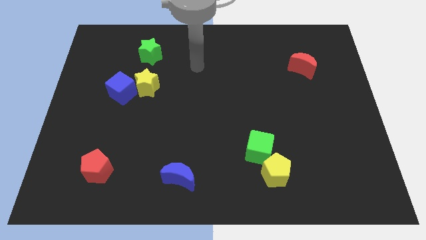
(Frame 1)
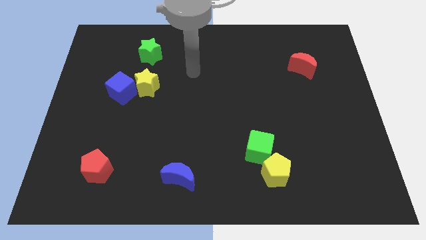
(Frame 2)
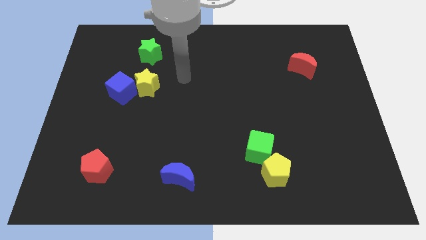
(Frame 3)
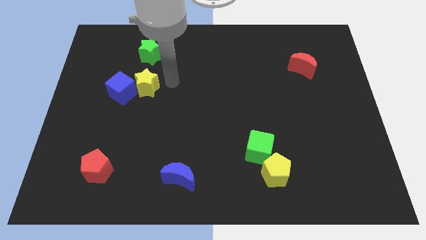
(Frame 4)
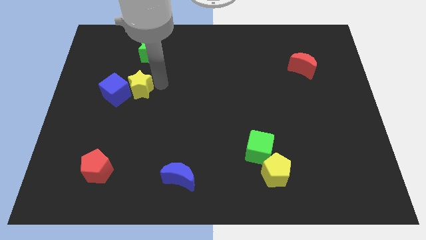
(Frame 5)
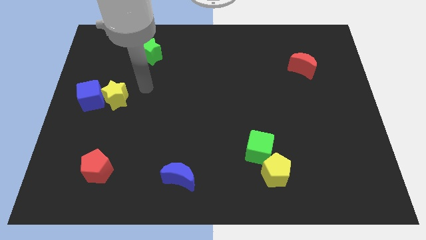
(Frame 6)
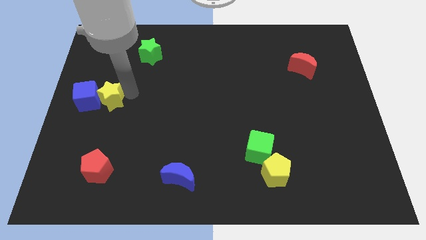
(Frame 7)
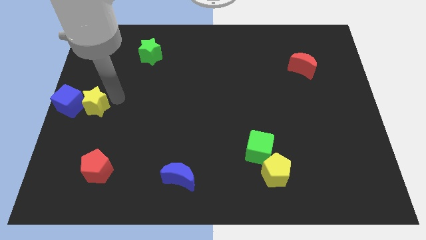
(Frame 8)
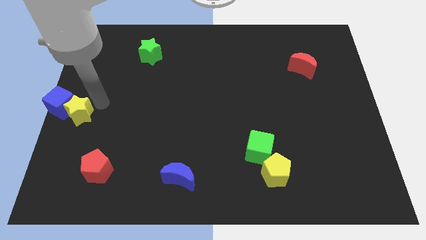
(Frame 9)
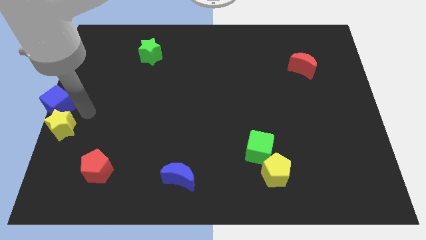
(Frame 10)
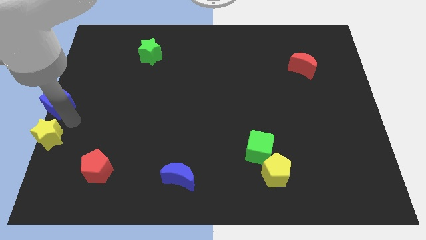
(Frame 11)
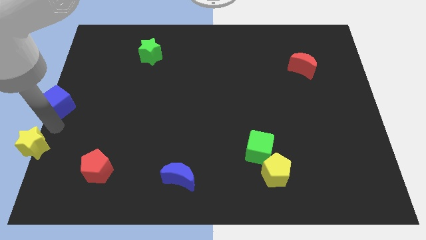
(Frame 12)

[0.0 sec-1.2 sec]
move the blue cube away from the yellow star

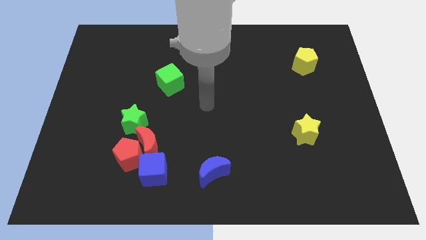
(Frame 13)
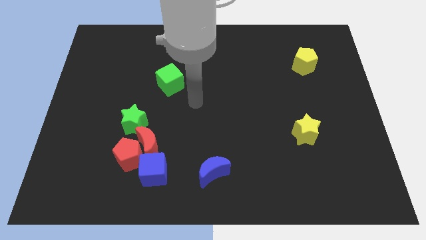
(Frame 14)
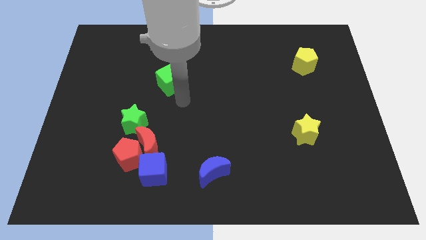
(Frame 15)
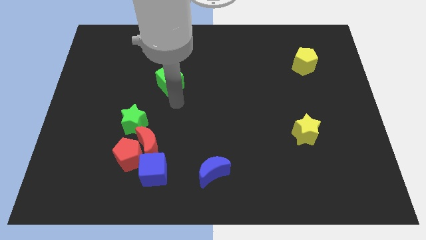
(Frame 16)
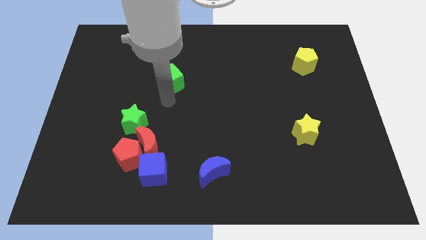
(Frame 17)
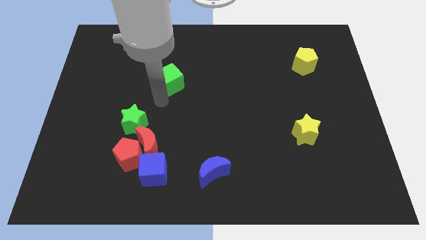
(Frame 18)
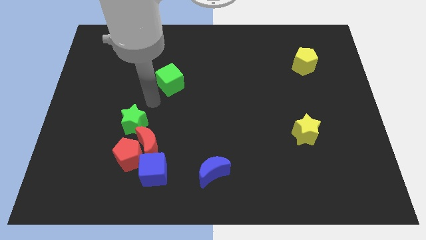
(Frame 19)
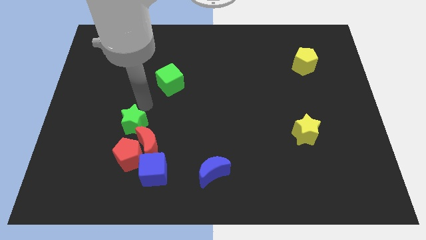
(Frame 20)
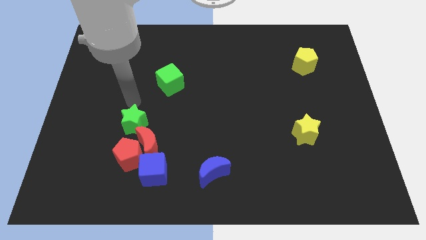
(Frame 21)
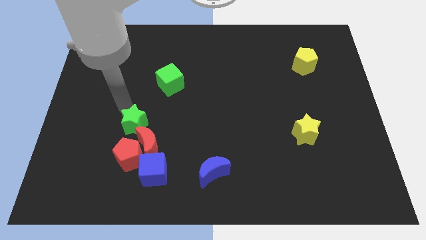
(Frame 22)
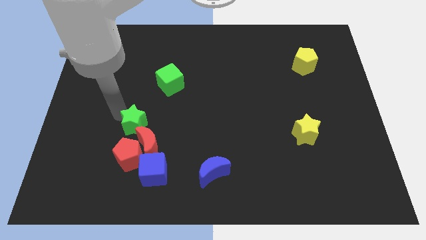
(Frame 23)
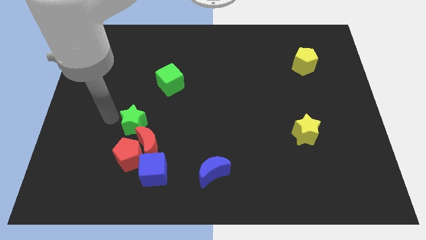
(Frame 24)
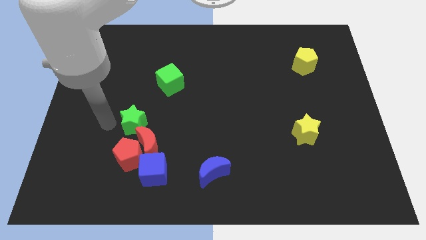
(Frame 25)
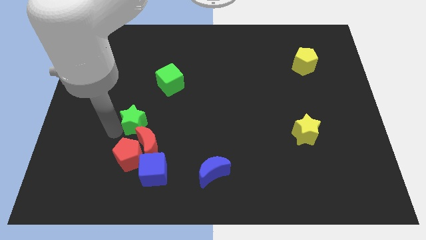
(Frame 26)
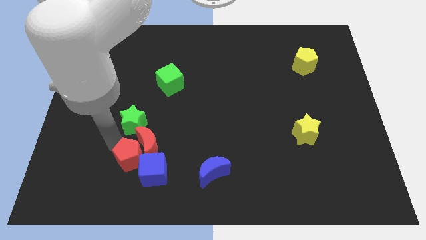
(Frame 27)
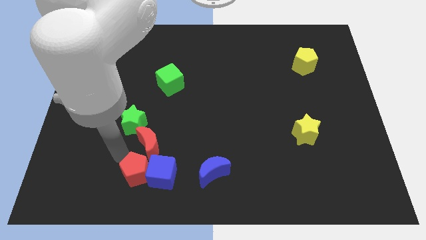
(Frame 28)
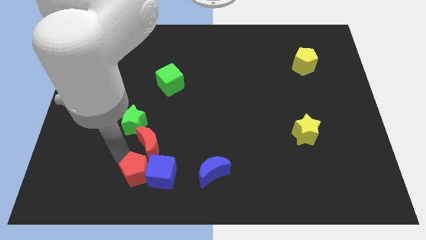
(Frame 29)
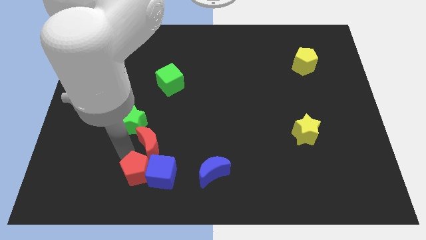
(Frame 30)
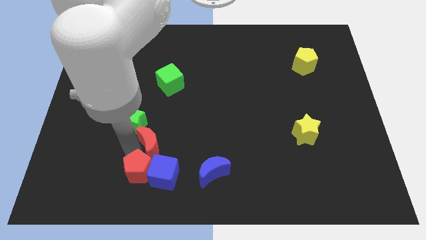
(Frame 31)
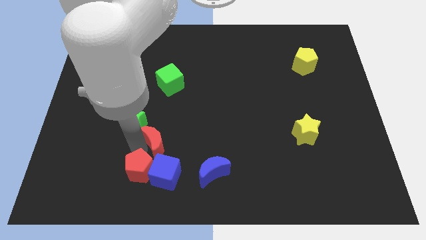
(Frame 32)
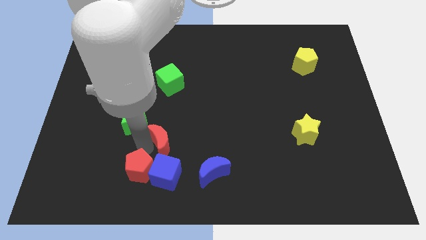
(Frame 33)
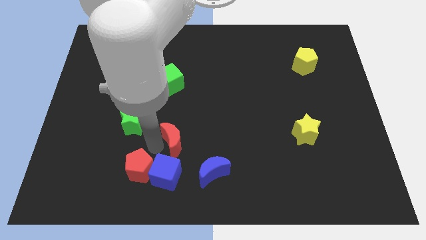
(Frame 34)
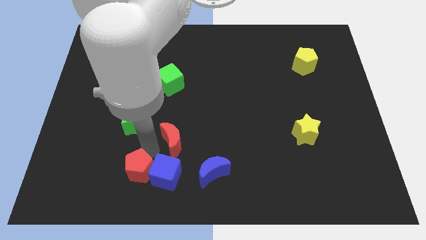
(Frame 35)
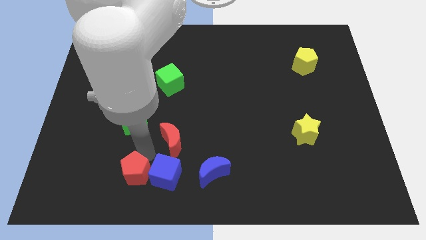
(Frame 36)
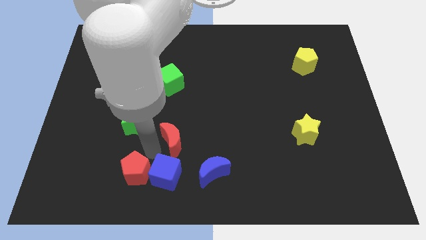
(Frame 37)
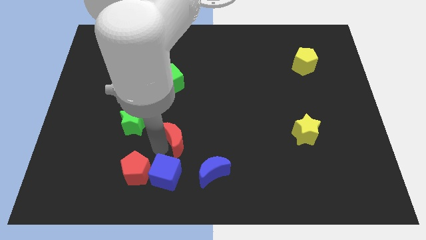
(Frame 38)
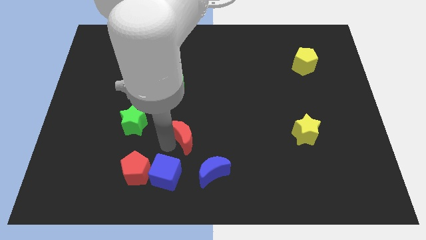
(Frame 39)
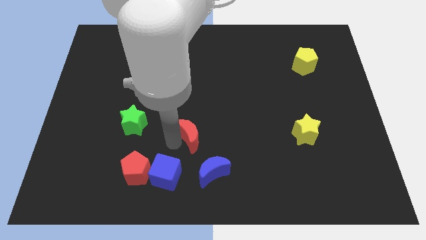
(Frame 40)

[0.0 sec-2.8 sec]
move the red moon away from the group of blocks

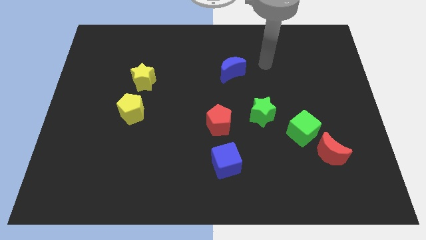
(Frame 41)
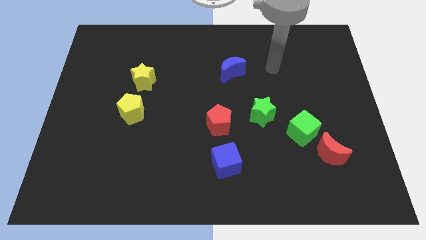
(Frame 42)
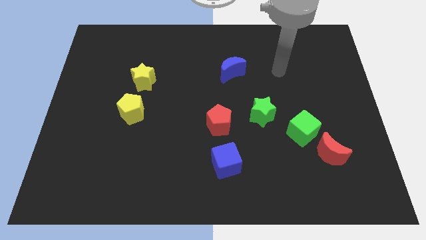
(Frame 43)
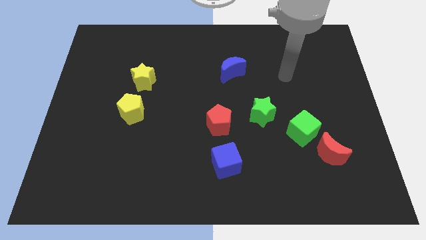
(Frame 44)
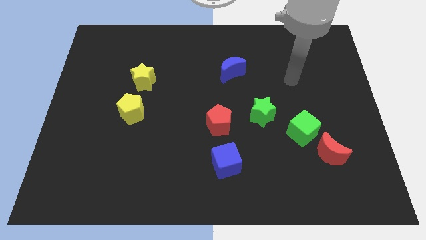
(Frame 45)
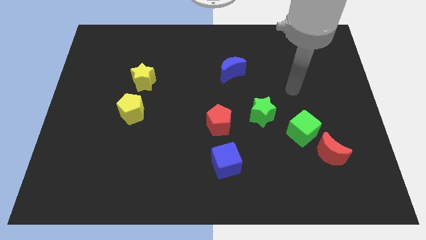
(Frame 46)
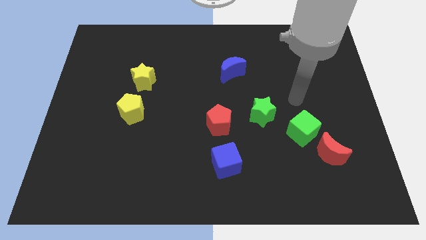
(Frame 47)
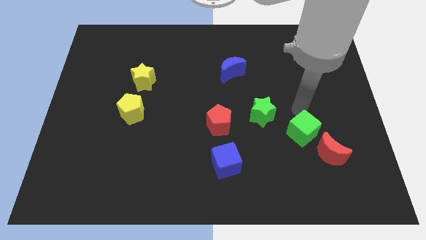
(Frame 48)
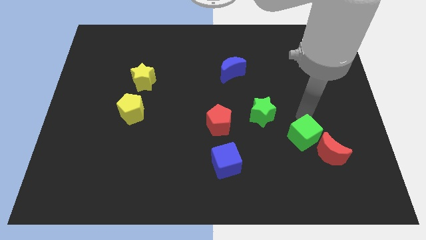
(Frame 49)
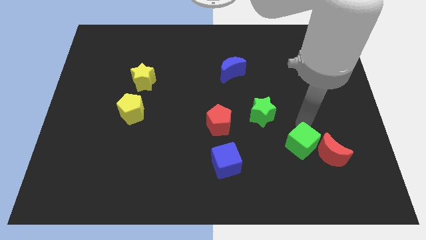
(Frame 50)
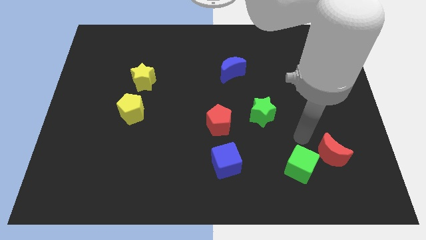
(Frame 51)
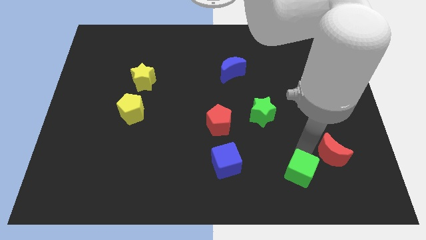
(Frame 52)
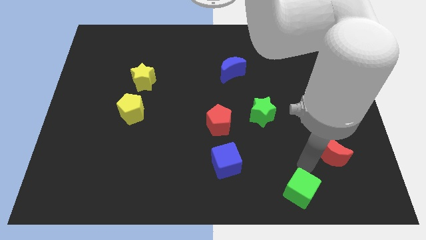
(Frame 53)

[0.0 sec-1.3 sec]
separate the red moon from the green cube

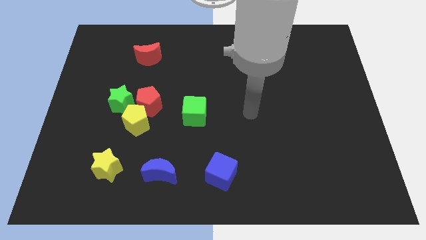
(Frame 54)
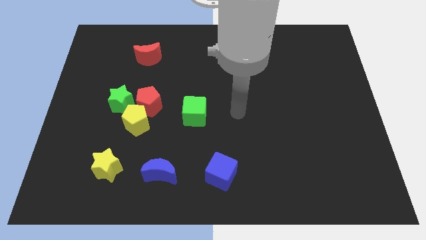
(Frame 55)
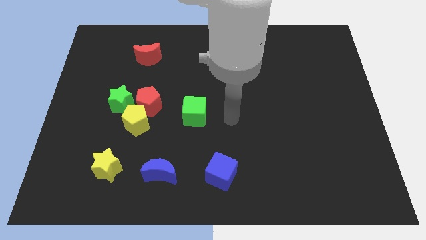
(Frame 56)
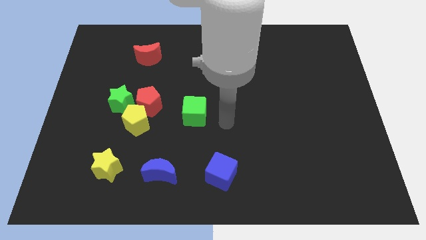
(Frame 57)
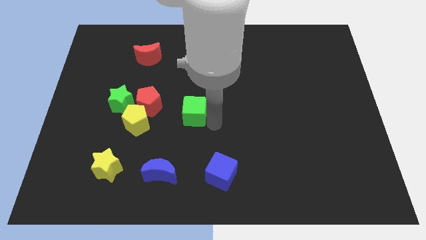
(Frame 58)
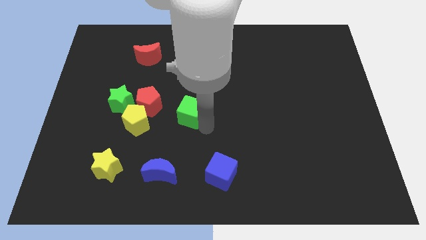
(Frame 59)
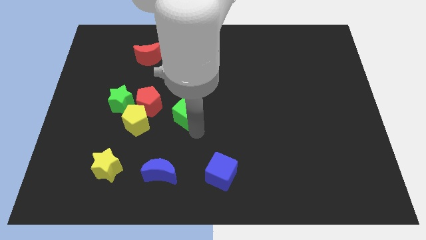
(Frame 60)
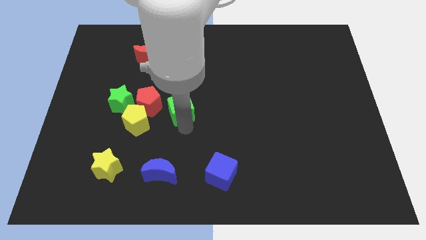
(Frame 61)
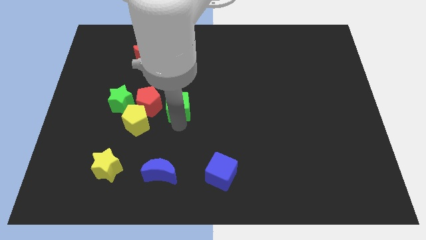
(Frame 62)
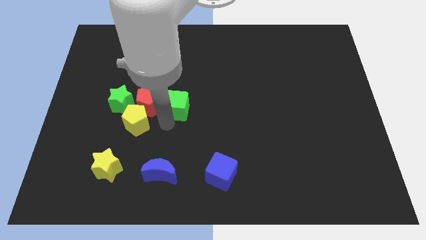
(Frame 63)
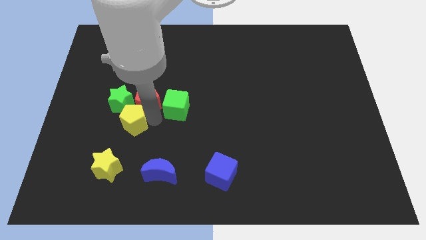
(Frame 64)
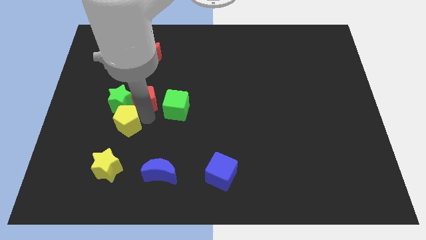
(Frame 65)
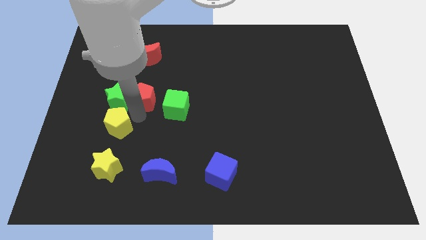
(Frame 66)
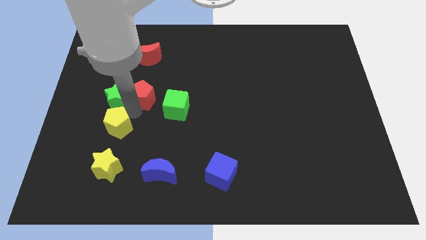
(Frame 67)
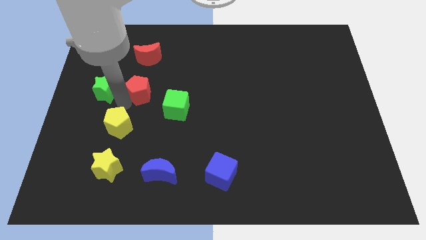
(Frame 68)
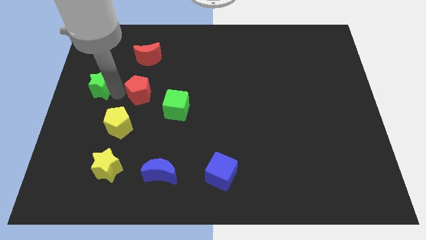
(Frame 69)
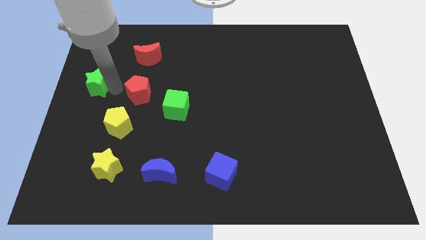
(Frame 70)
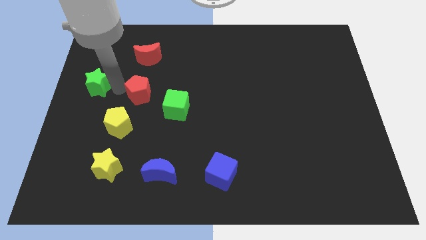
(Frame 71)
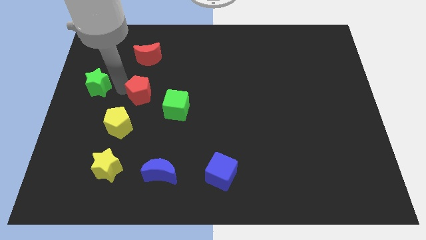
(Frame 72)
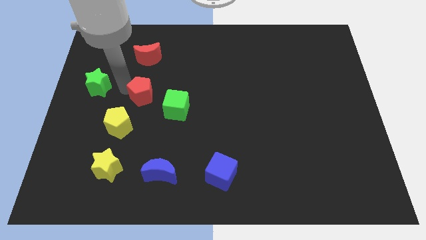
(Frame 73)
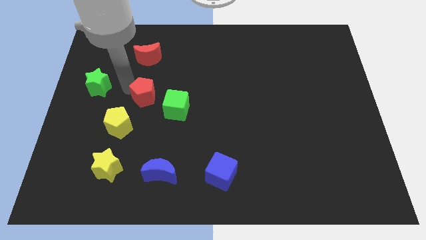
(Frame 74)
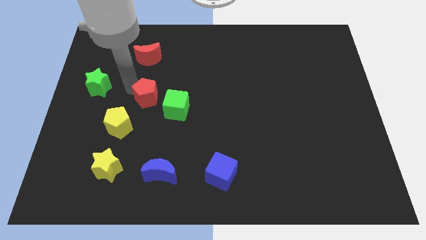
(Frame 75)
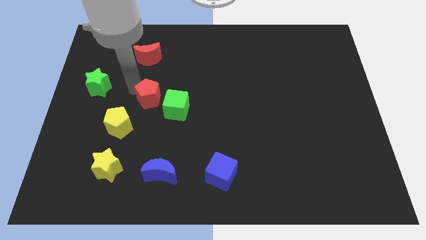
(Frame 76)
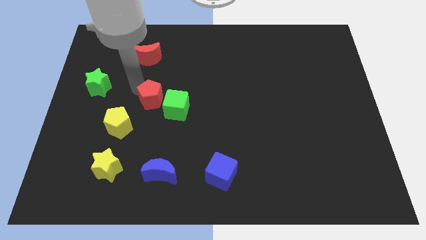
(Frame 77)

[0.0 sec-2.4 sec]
pull the red pentagon apart from the yellow pentagon and green star

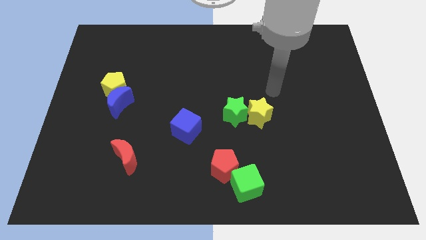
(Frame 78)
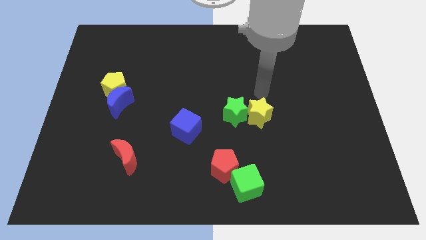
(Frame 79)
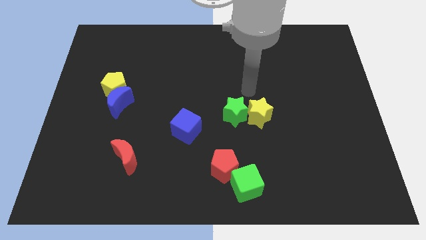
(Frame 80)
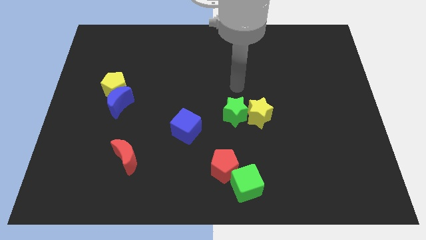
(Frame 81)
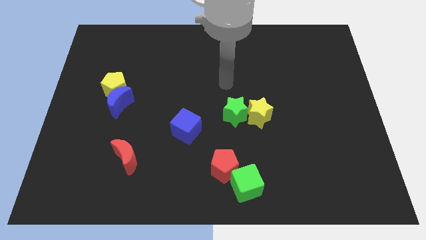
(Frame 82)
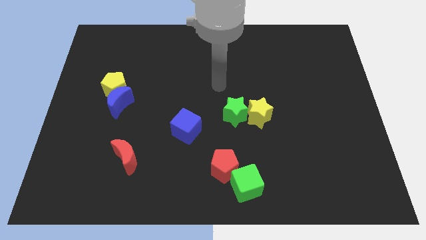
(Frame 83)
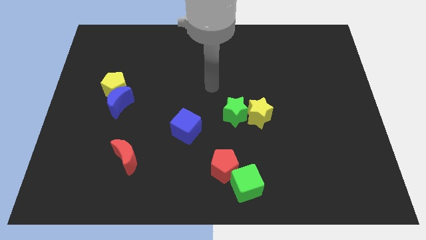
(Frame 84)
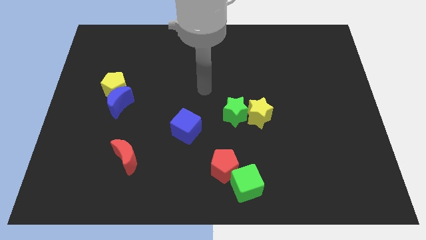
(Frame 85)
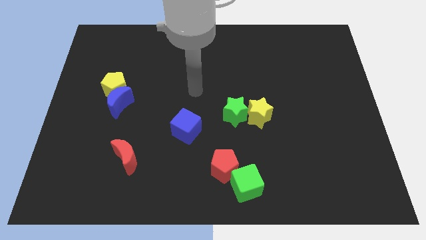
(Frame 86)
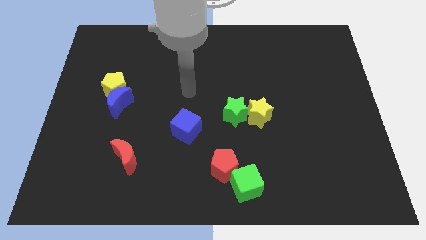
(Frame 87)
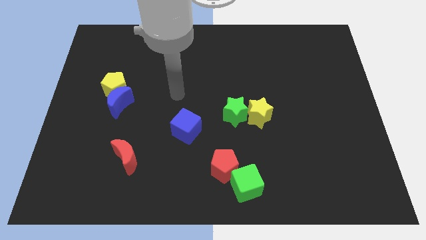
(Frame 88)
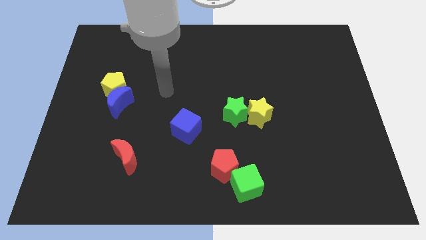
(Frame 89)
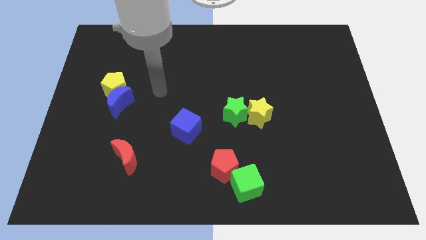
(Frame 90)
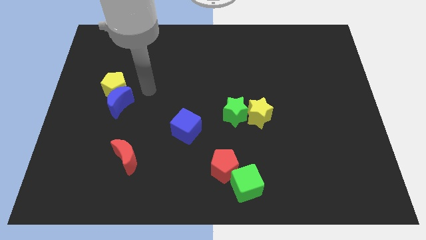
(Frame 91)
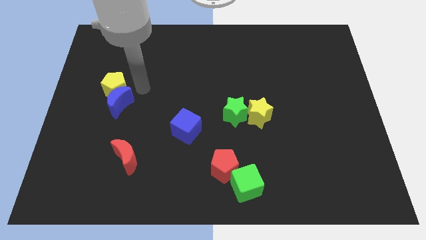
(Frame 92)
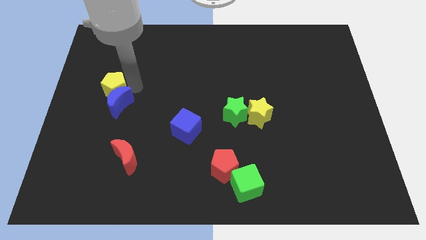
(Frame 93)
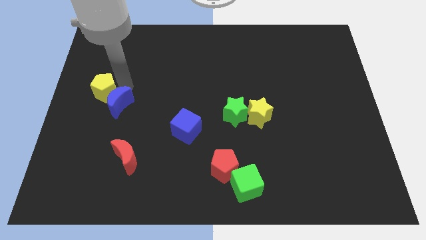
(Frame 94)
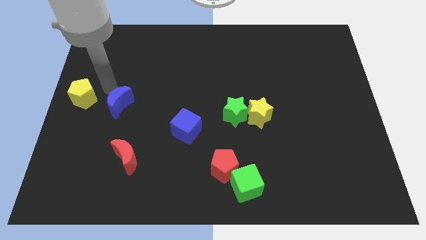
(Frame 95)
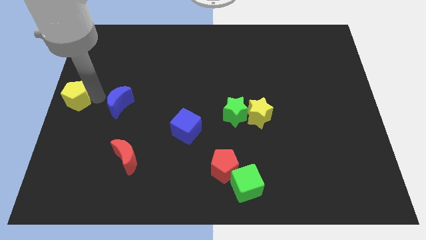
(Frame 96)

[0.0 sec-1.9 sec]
separate the blue moon from the yellow pentagon
